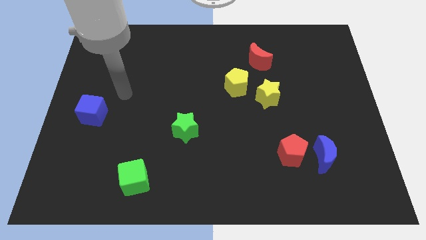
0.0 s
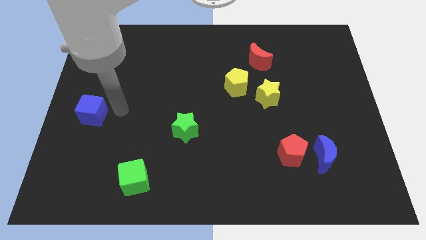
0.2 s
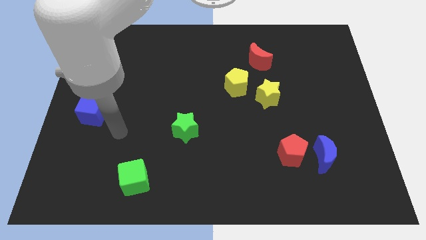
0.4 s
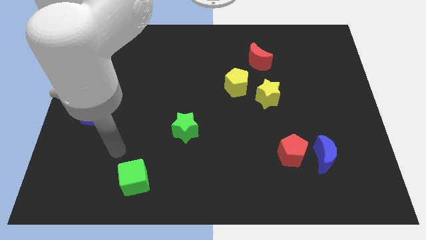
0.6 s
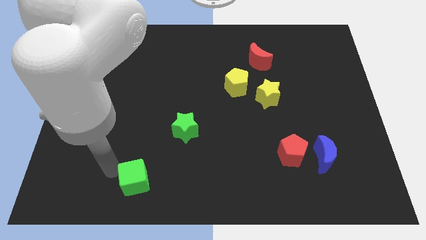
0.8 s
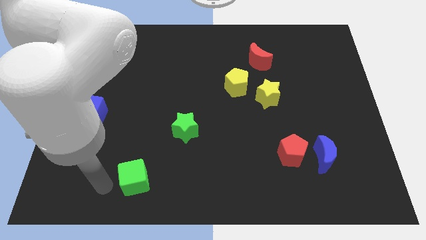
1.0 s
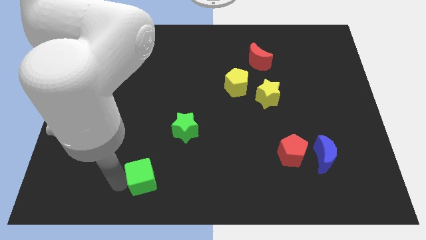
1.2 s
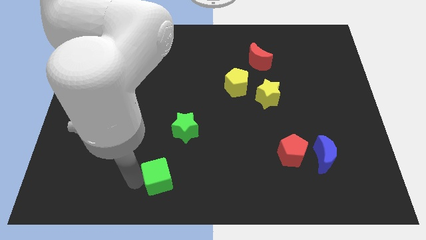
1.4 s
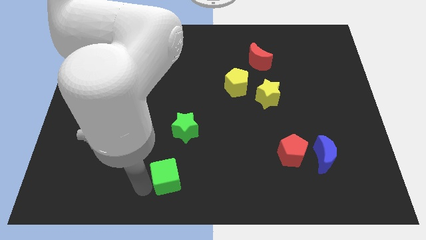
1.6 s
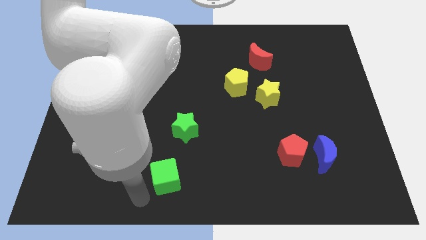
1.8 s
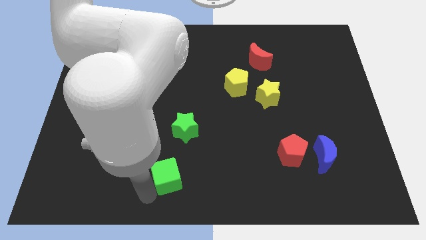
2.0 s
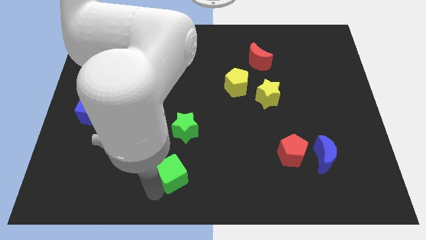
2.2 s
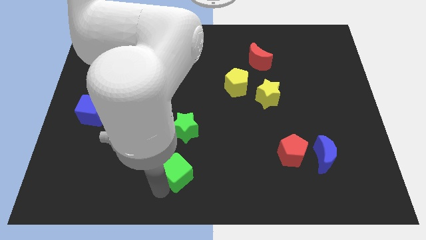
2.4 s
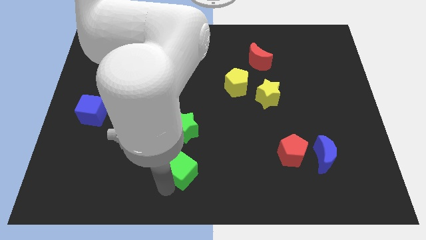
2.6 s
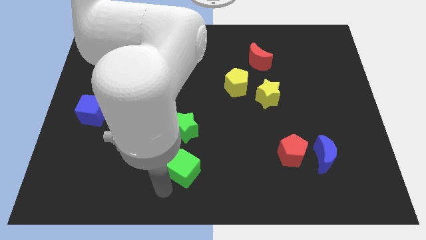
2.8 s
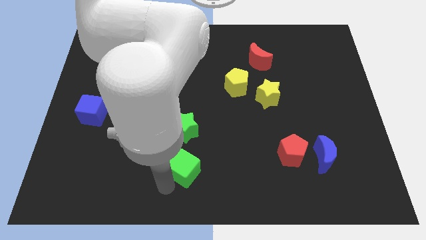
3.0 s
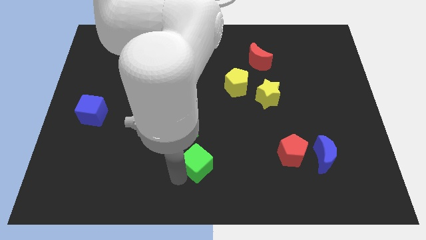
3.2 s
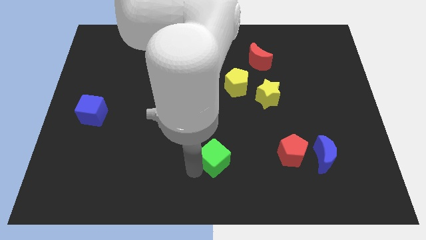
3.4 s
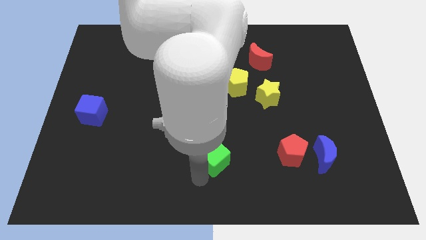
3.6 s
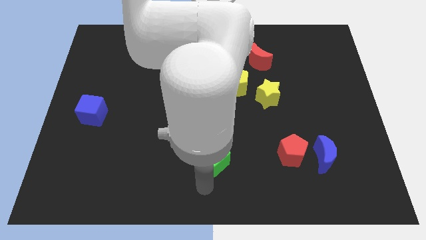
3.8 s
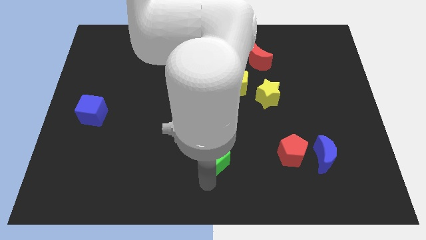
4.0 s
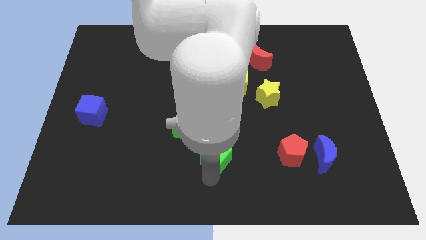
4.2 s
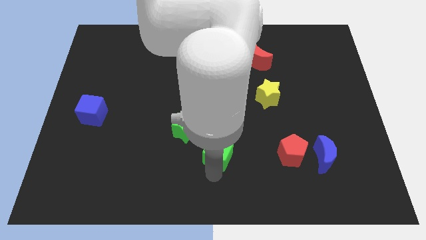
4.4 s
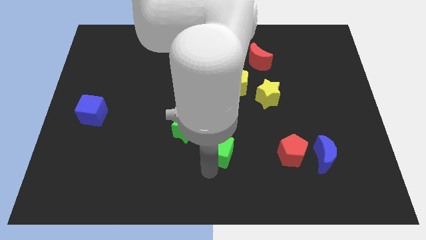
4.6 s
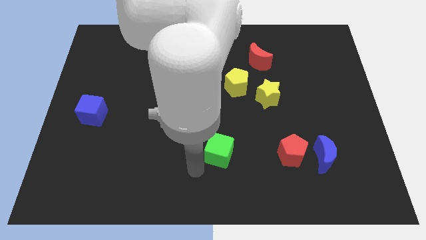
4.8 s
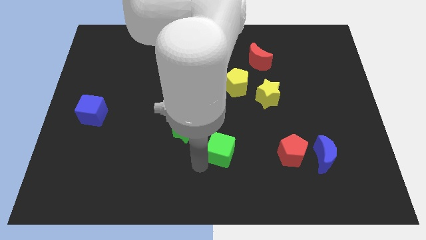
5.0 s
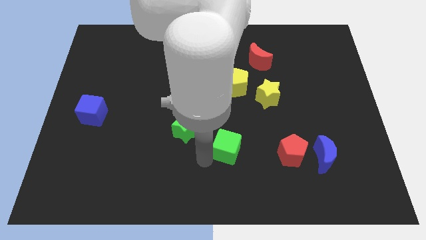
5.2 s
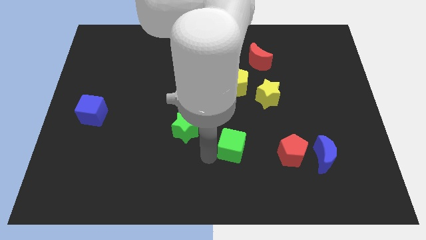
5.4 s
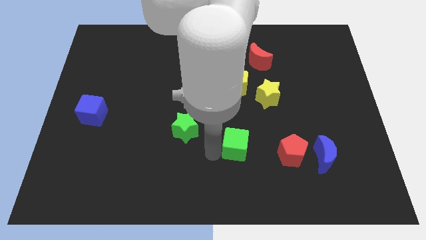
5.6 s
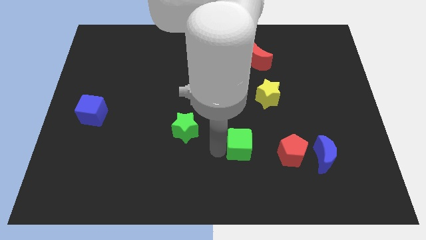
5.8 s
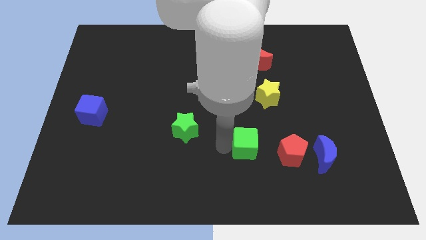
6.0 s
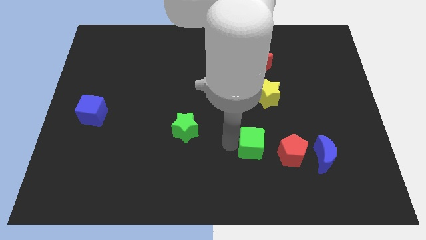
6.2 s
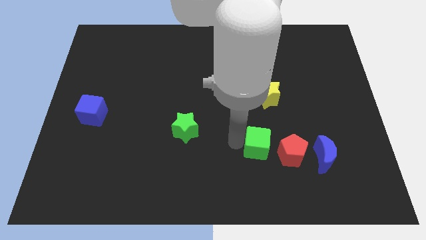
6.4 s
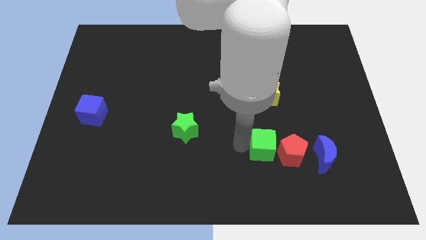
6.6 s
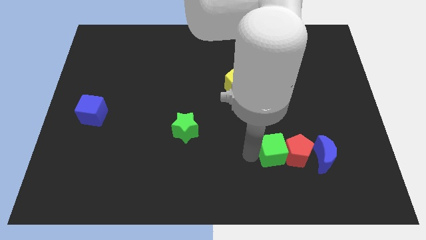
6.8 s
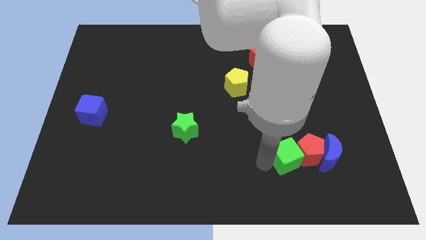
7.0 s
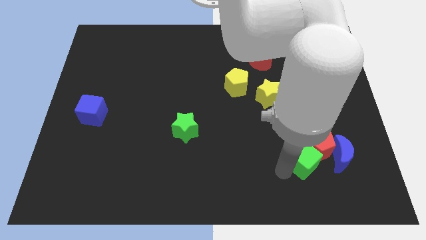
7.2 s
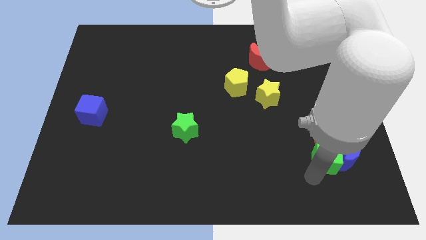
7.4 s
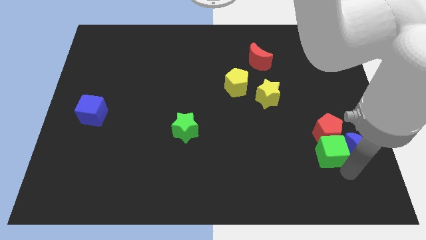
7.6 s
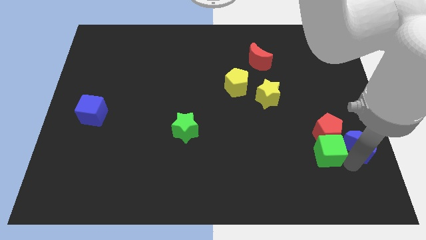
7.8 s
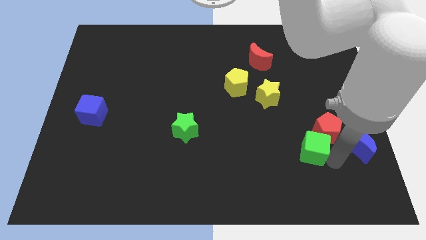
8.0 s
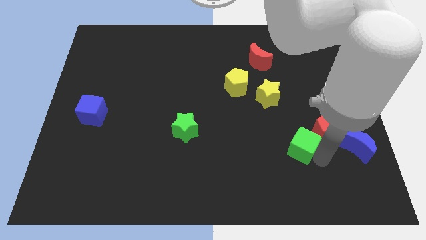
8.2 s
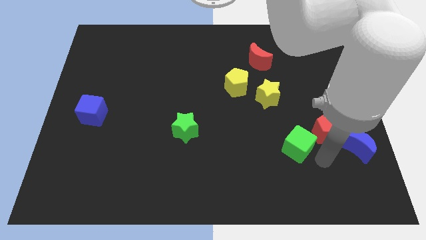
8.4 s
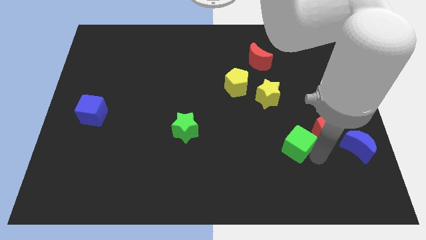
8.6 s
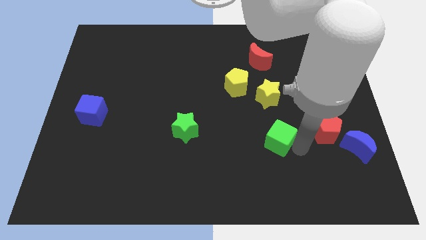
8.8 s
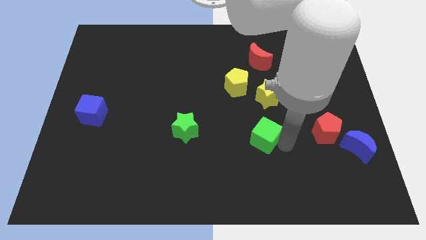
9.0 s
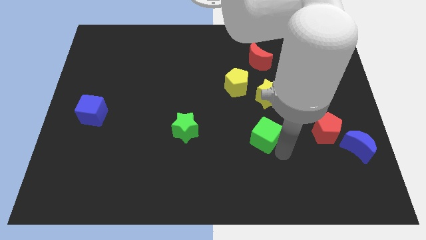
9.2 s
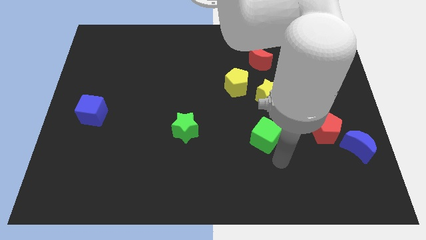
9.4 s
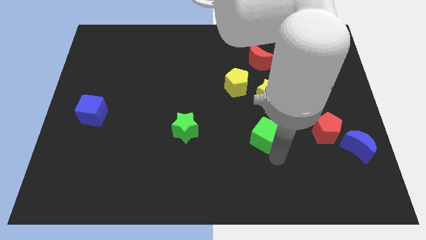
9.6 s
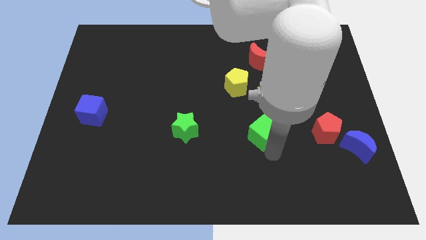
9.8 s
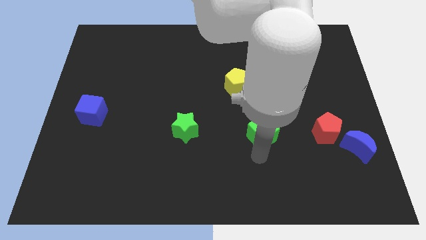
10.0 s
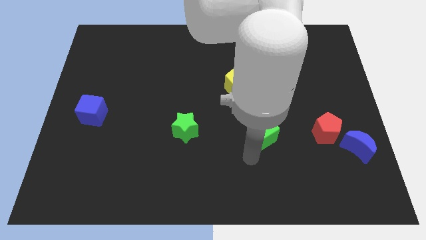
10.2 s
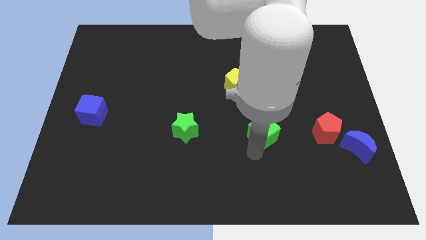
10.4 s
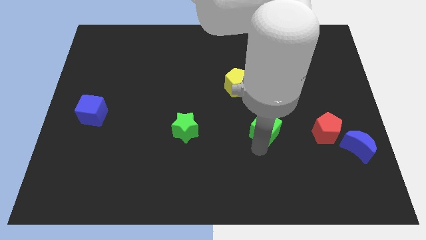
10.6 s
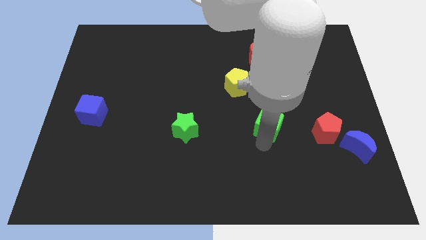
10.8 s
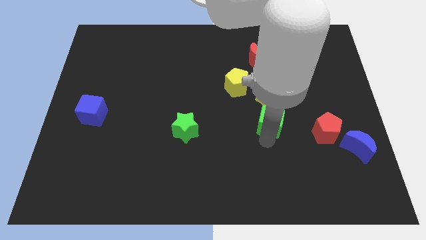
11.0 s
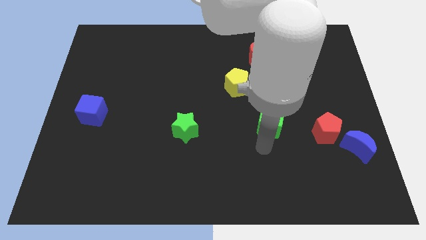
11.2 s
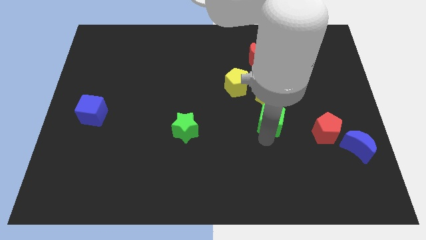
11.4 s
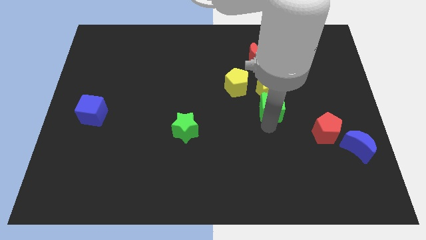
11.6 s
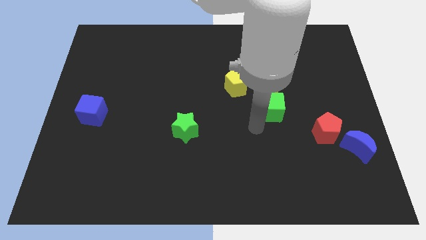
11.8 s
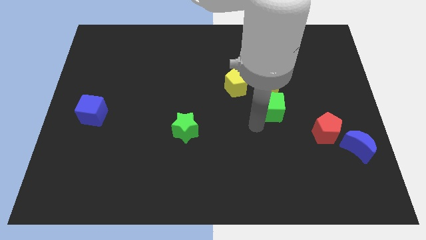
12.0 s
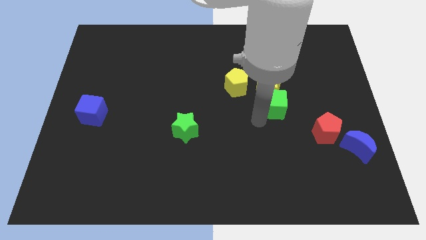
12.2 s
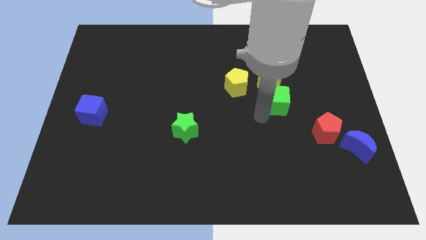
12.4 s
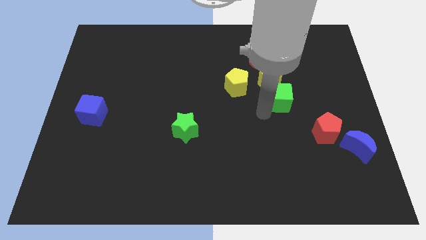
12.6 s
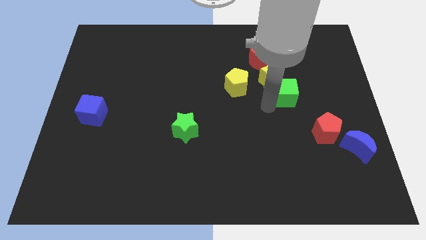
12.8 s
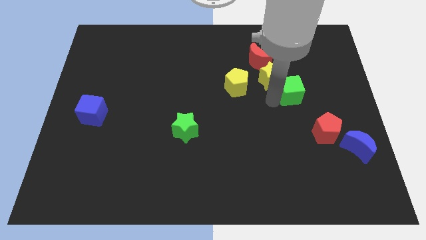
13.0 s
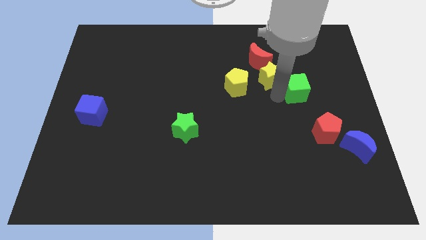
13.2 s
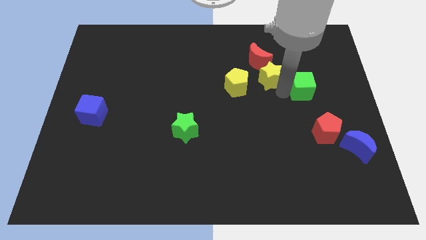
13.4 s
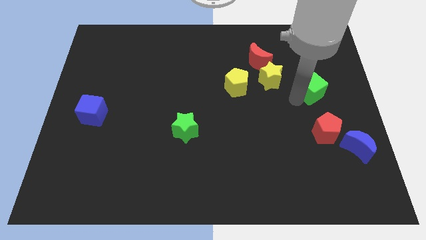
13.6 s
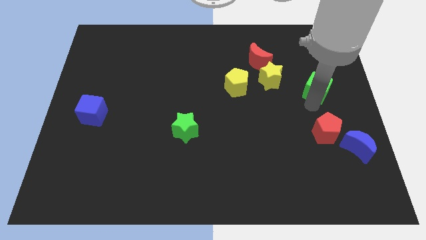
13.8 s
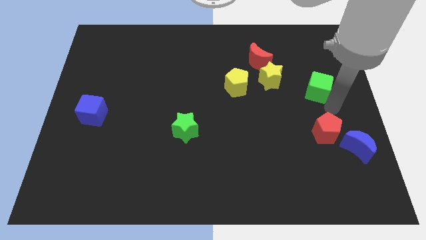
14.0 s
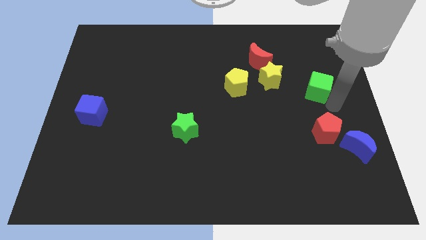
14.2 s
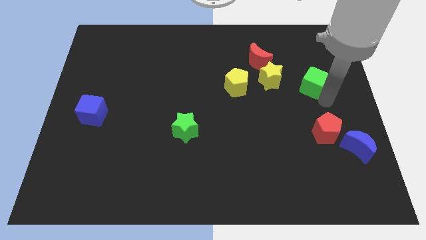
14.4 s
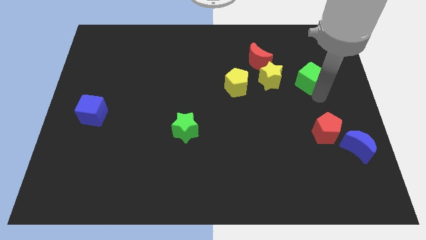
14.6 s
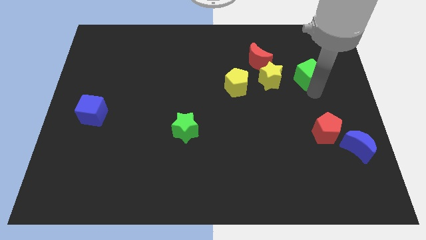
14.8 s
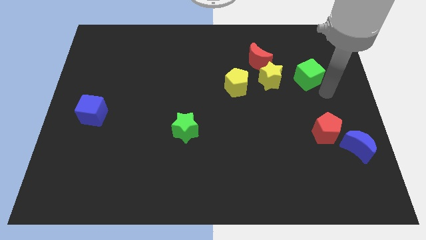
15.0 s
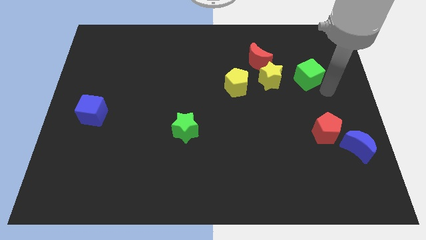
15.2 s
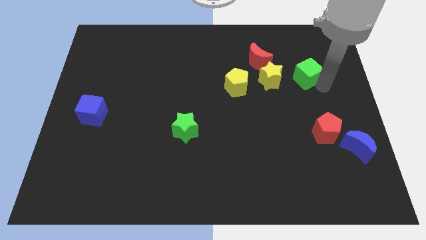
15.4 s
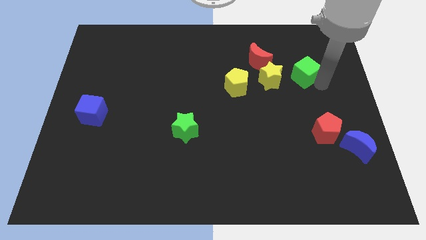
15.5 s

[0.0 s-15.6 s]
put the green cube diagonally up and to the right of the yellow star
